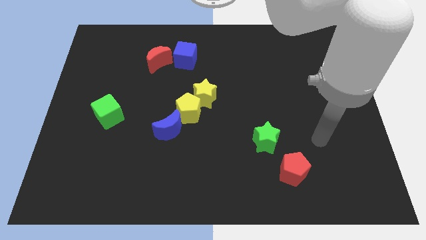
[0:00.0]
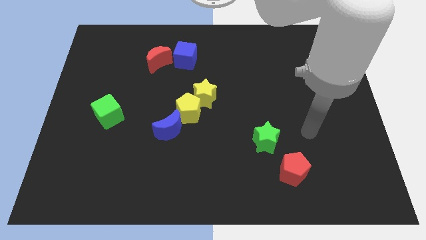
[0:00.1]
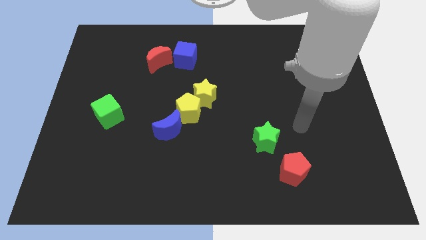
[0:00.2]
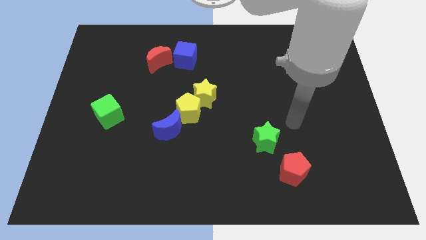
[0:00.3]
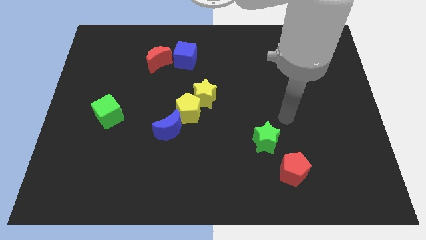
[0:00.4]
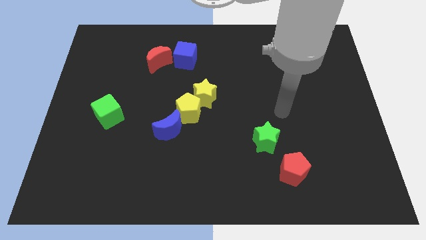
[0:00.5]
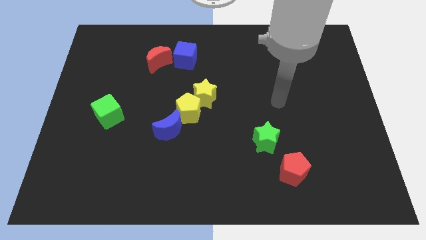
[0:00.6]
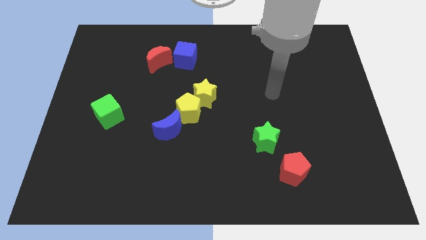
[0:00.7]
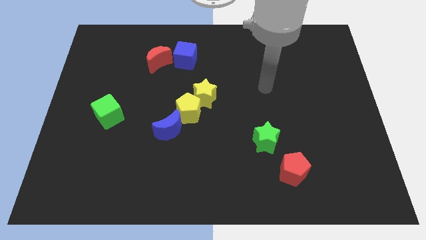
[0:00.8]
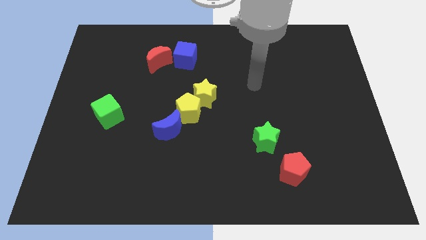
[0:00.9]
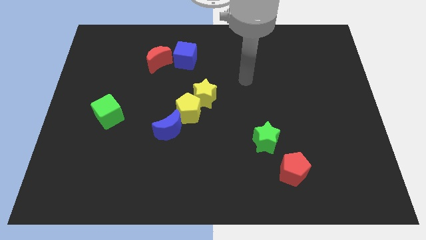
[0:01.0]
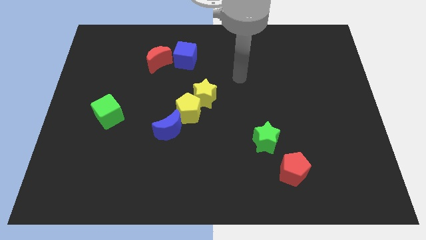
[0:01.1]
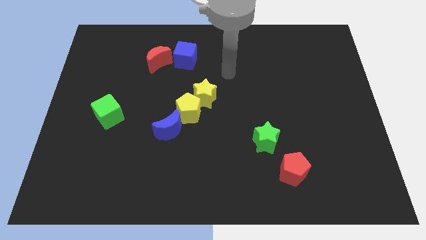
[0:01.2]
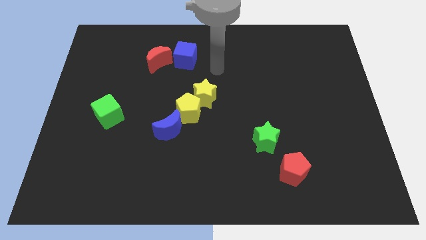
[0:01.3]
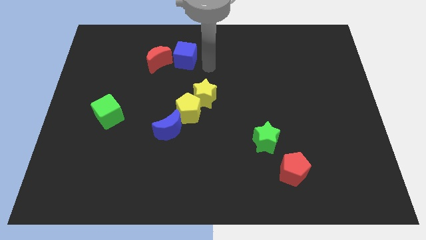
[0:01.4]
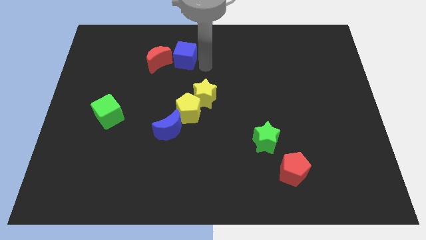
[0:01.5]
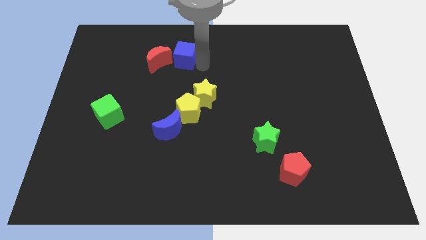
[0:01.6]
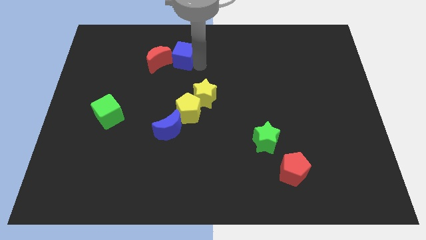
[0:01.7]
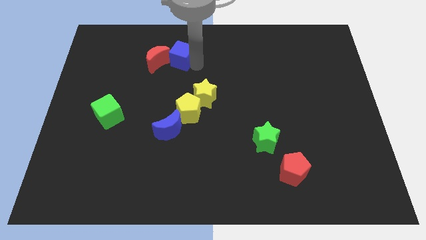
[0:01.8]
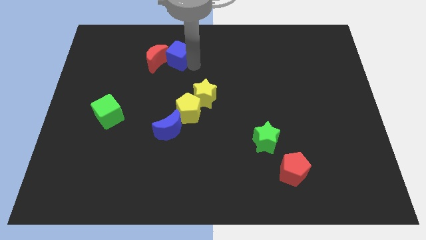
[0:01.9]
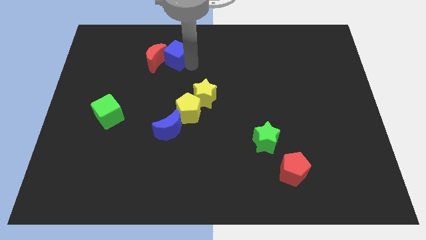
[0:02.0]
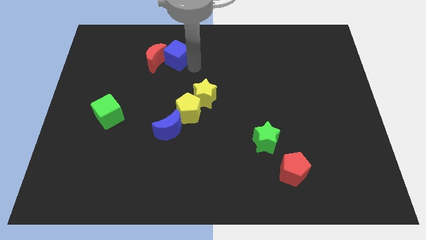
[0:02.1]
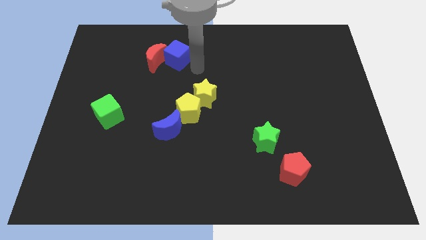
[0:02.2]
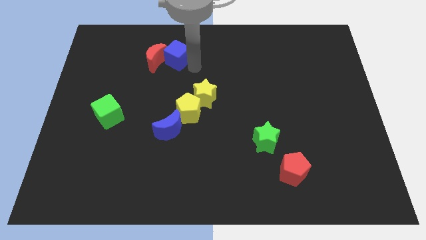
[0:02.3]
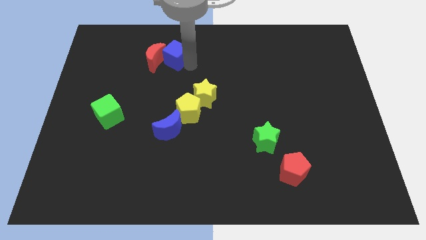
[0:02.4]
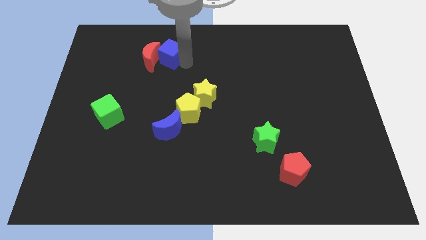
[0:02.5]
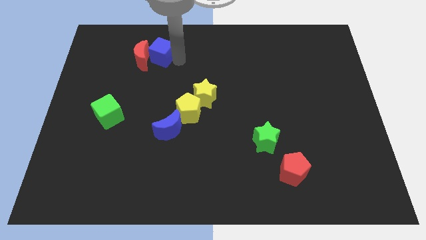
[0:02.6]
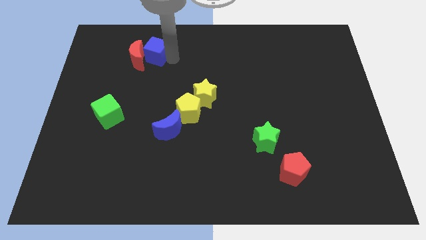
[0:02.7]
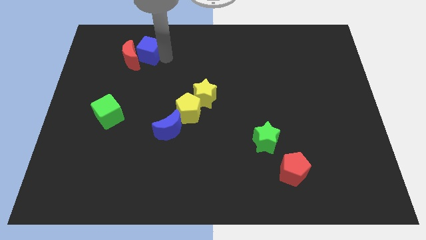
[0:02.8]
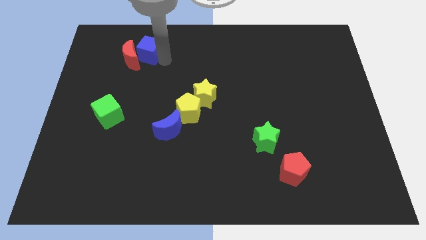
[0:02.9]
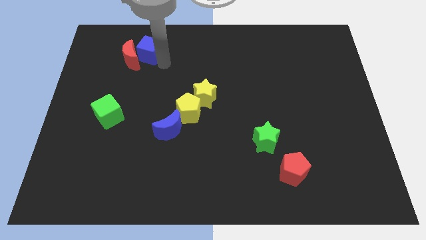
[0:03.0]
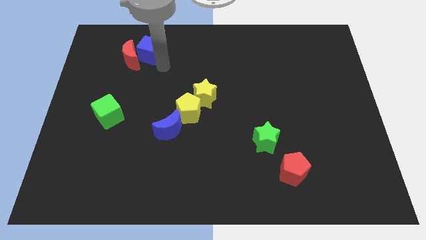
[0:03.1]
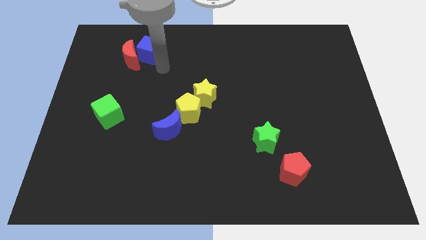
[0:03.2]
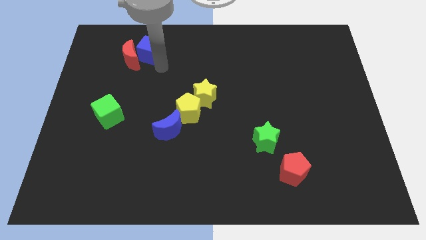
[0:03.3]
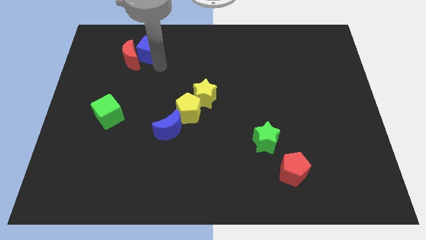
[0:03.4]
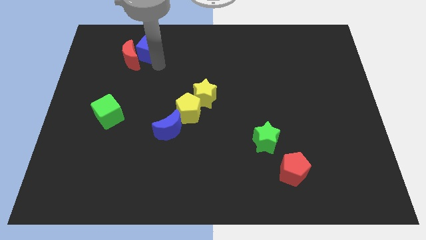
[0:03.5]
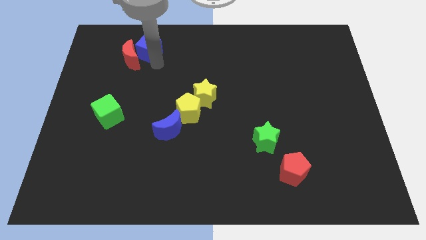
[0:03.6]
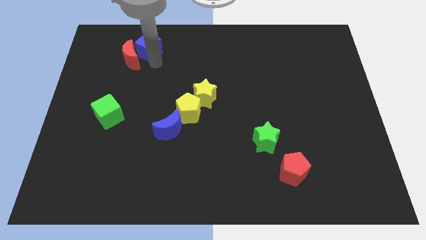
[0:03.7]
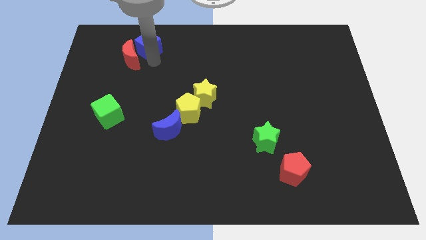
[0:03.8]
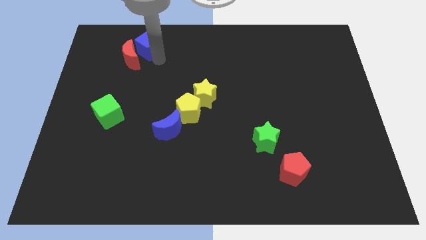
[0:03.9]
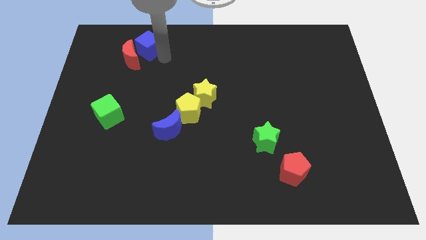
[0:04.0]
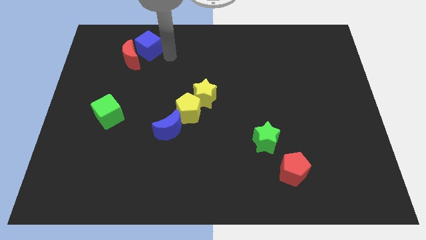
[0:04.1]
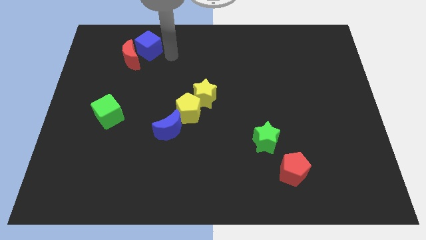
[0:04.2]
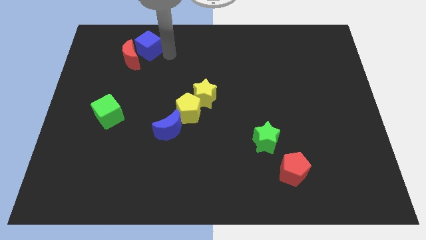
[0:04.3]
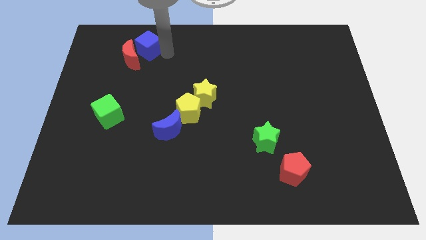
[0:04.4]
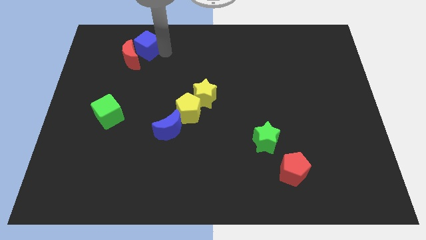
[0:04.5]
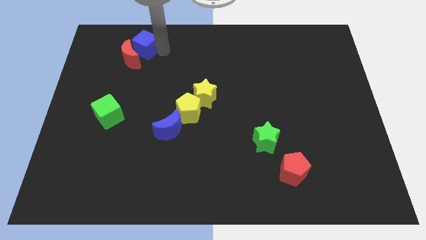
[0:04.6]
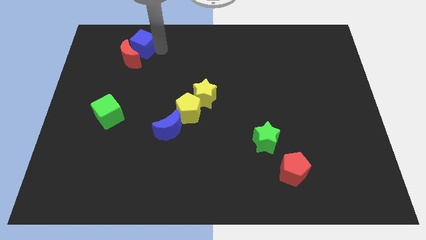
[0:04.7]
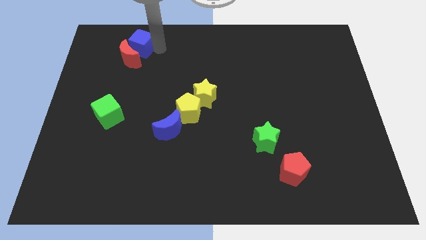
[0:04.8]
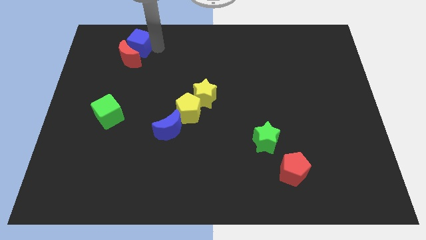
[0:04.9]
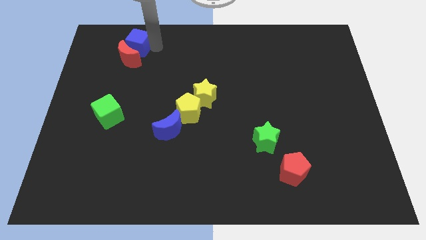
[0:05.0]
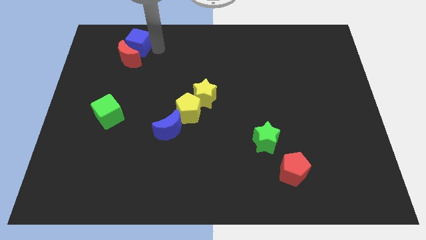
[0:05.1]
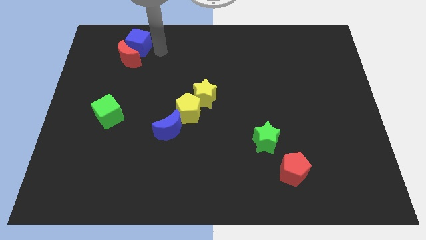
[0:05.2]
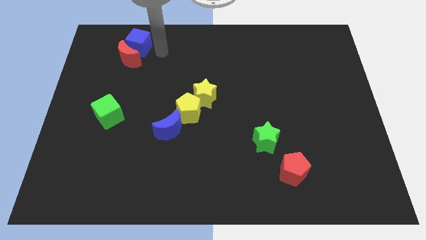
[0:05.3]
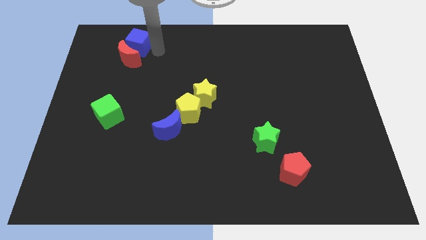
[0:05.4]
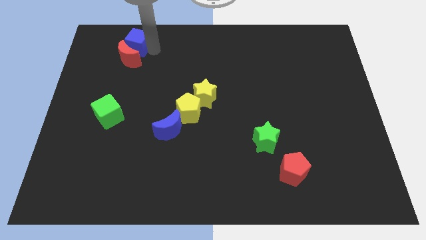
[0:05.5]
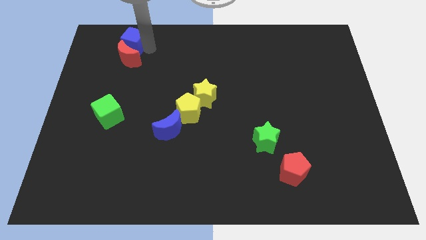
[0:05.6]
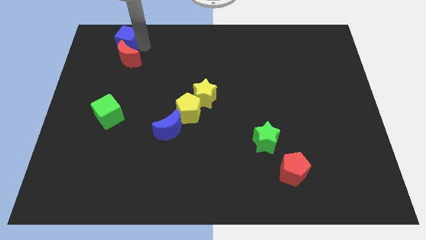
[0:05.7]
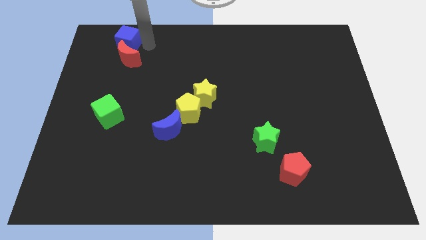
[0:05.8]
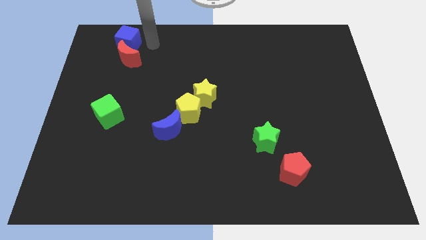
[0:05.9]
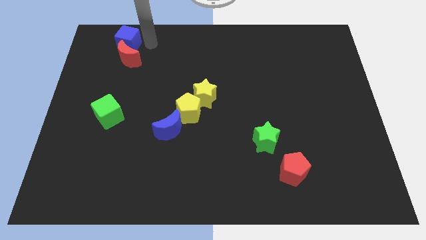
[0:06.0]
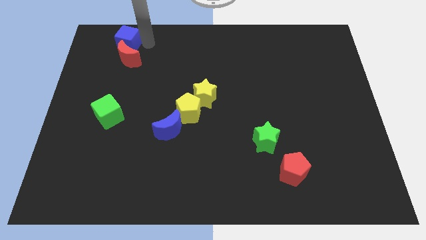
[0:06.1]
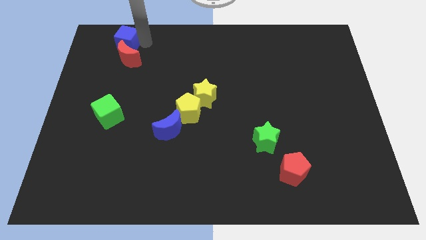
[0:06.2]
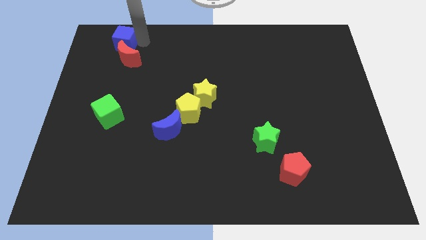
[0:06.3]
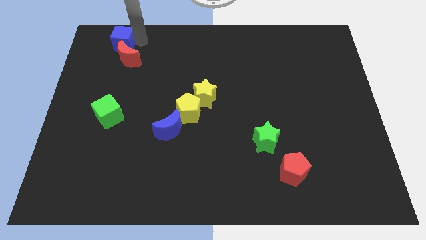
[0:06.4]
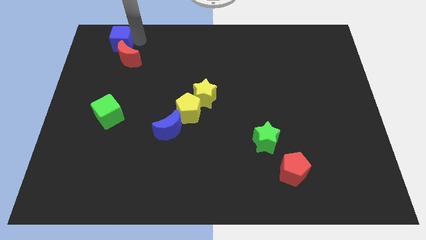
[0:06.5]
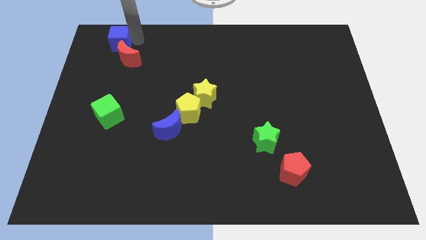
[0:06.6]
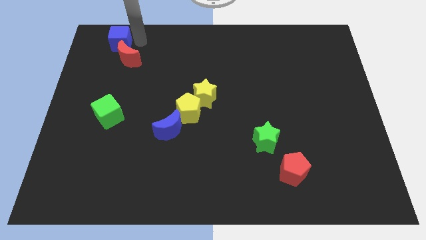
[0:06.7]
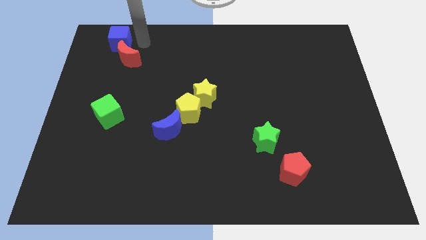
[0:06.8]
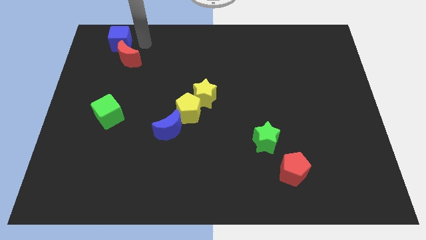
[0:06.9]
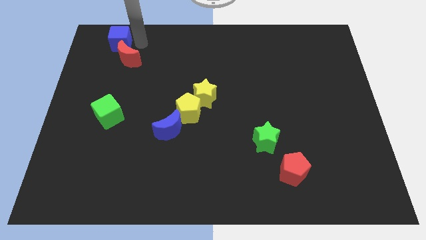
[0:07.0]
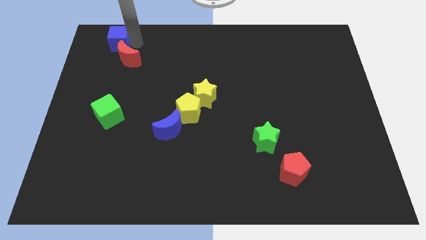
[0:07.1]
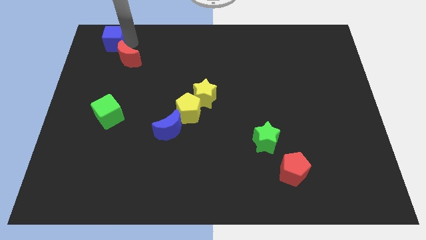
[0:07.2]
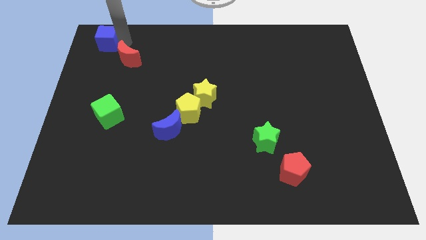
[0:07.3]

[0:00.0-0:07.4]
put the blue cube to the top left corner
